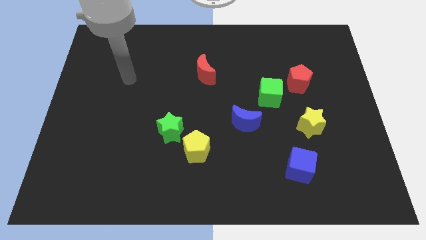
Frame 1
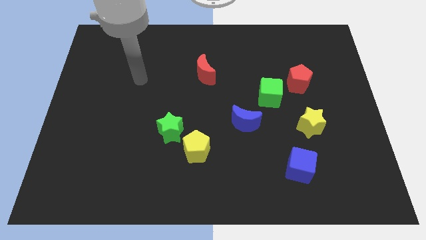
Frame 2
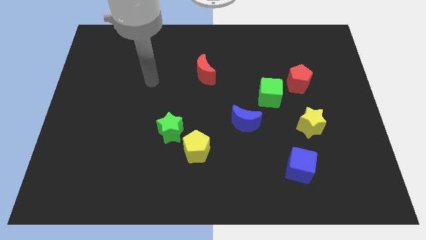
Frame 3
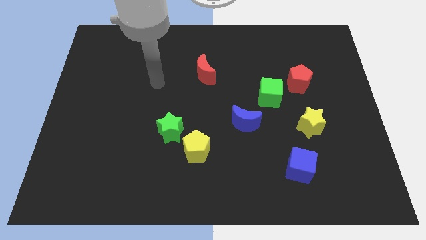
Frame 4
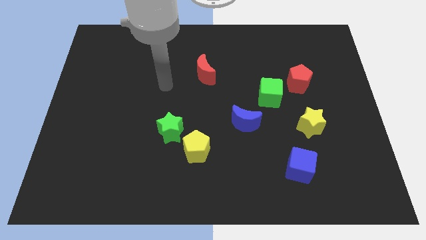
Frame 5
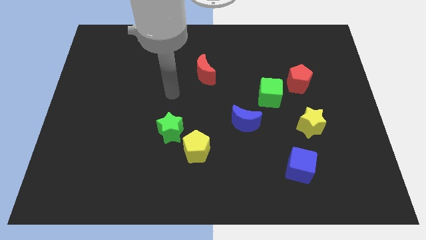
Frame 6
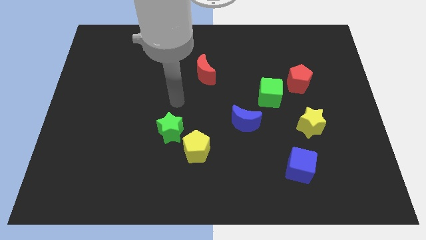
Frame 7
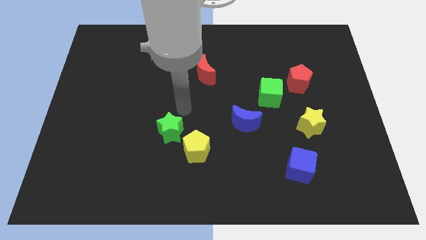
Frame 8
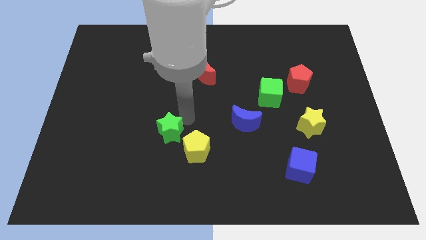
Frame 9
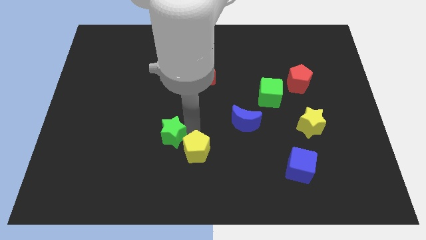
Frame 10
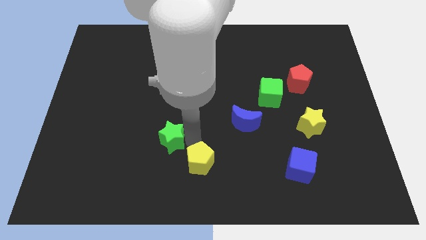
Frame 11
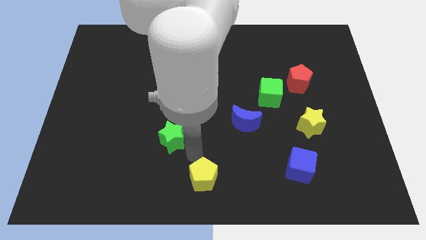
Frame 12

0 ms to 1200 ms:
separate the green star from the yellow pentagon

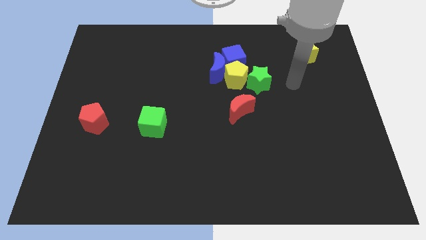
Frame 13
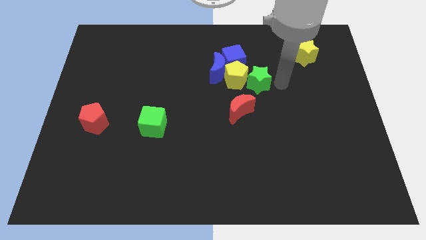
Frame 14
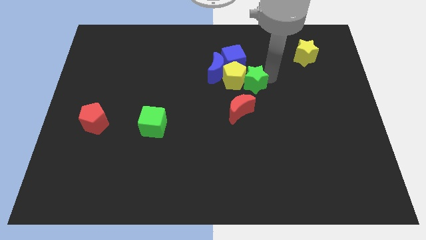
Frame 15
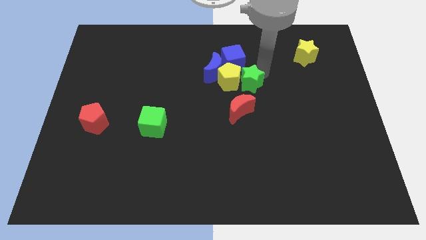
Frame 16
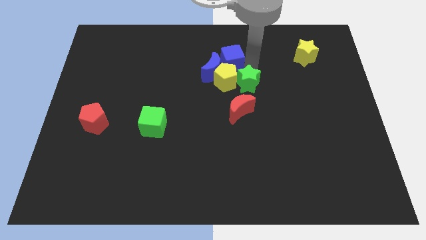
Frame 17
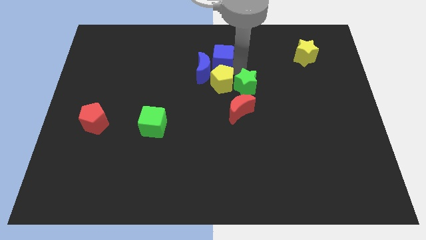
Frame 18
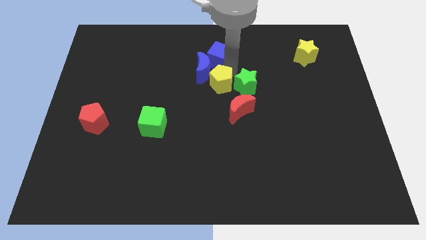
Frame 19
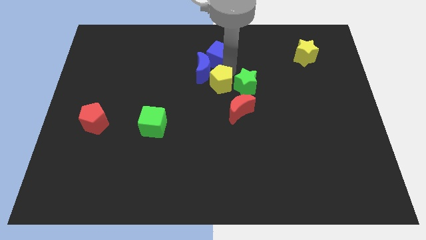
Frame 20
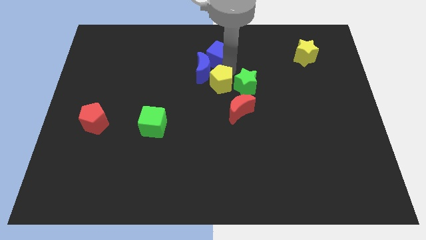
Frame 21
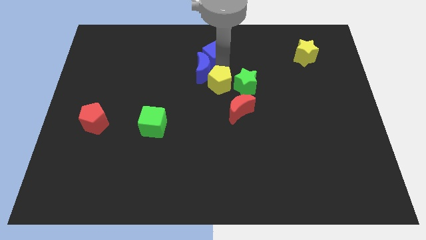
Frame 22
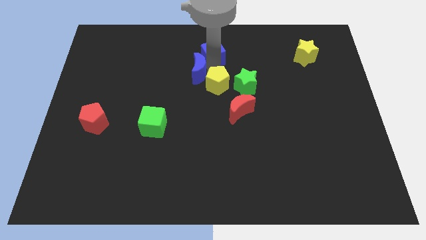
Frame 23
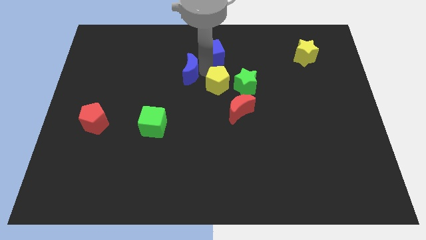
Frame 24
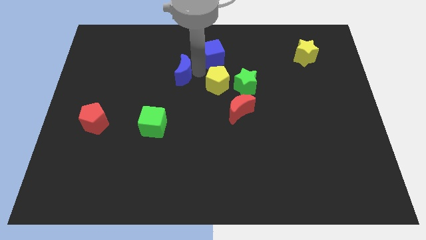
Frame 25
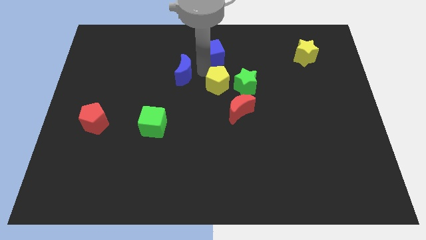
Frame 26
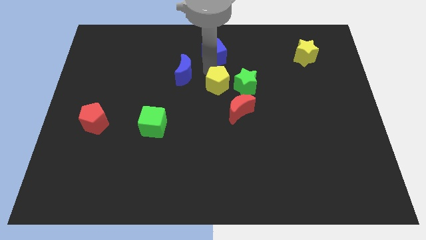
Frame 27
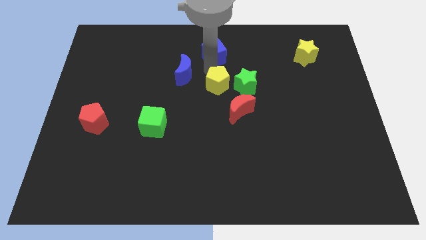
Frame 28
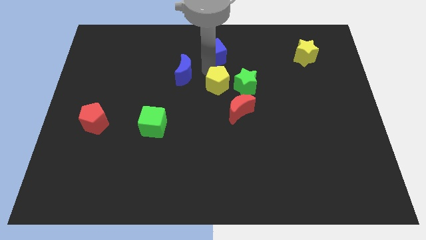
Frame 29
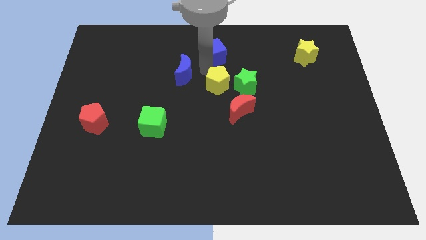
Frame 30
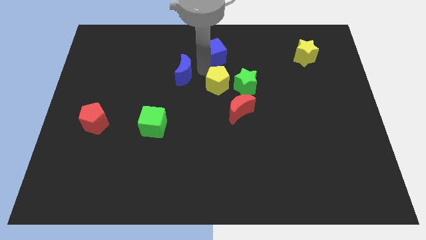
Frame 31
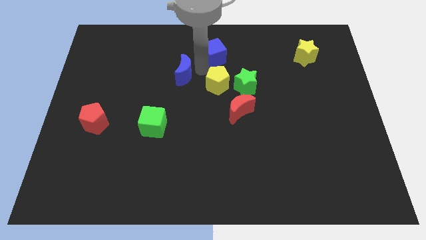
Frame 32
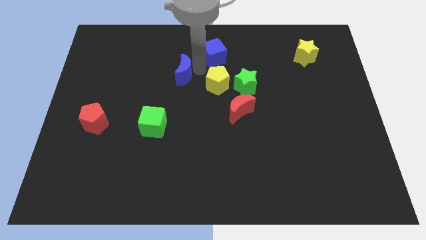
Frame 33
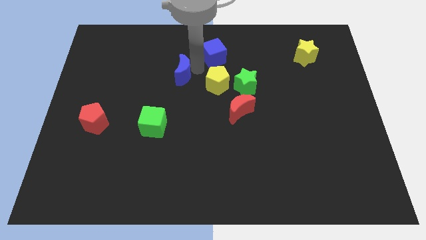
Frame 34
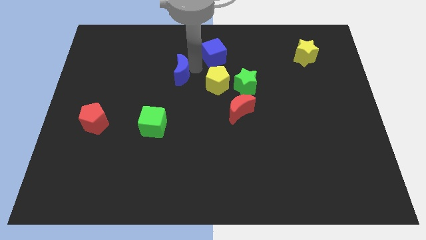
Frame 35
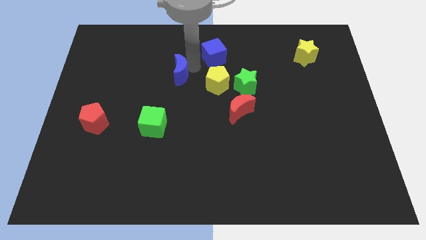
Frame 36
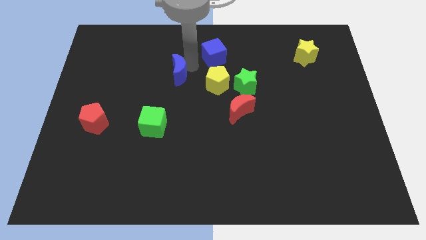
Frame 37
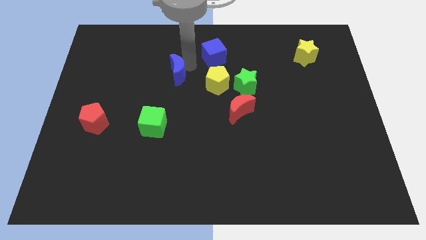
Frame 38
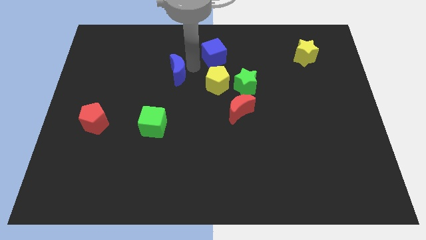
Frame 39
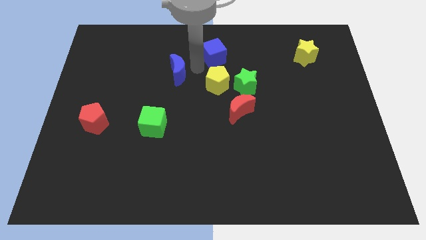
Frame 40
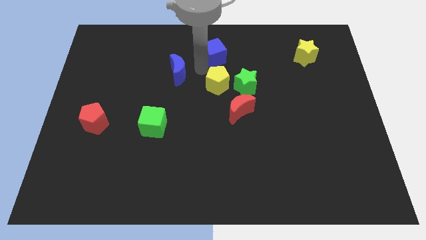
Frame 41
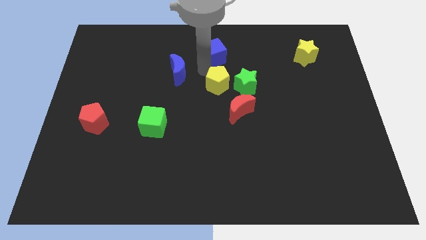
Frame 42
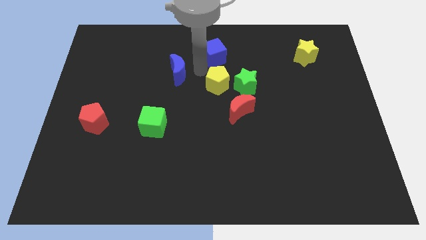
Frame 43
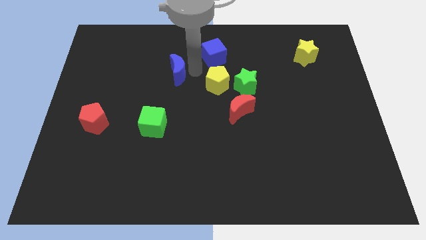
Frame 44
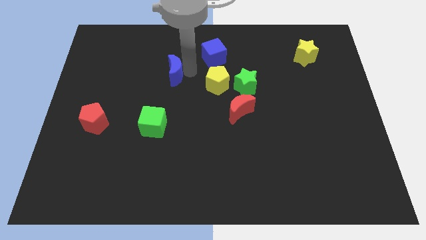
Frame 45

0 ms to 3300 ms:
separate the blue moon from the yellow pentagon and blue cube

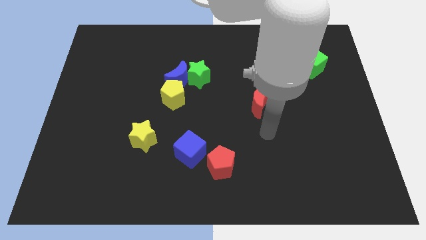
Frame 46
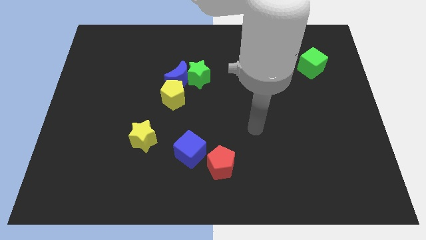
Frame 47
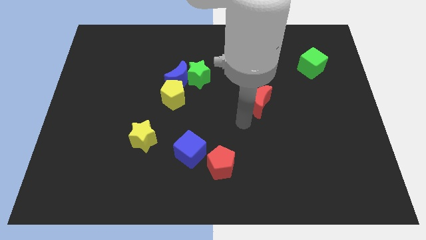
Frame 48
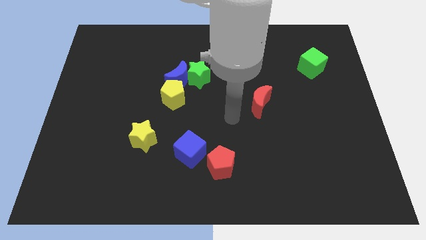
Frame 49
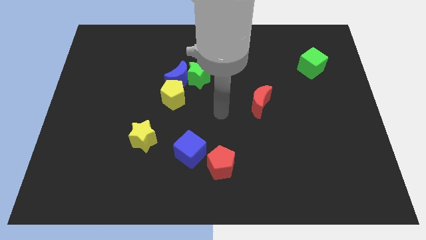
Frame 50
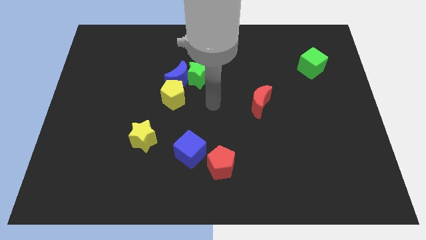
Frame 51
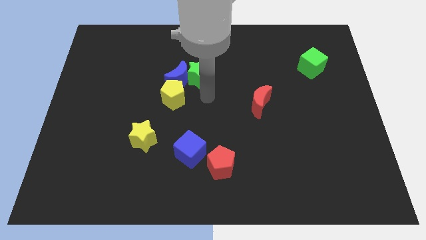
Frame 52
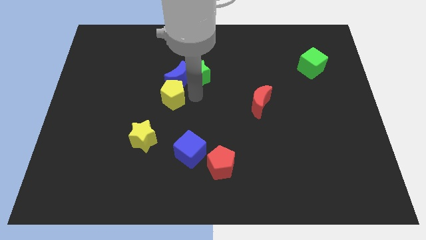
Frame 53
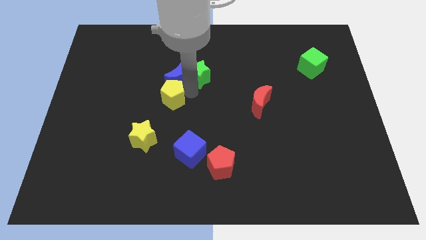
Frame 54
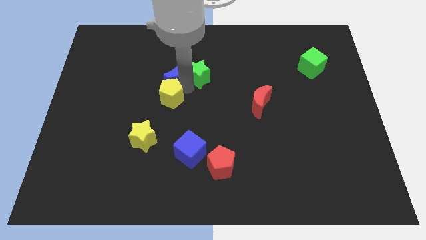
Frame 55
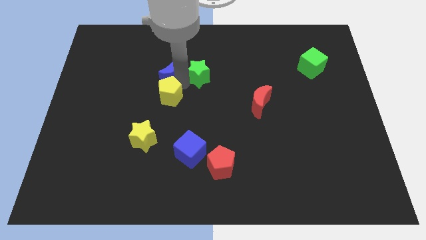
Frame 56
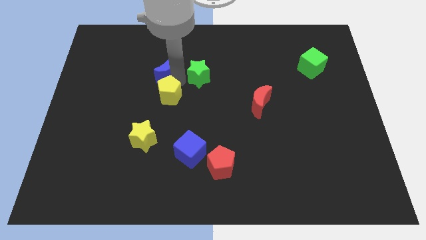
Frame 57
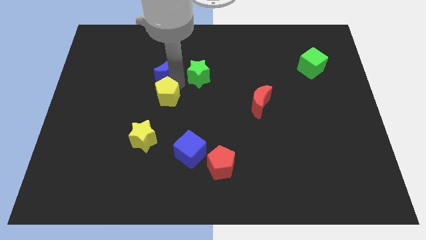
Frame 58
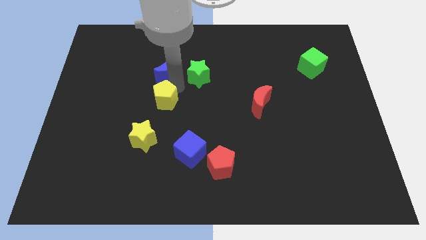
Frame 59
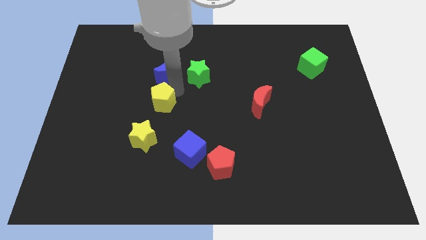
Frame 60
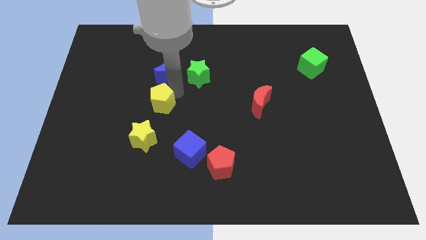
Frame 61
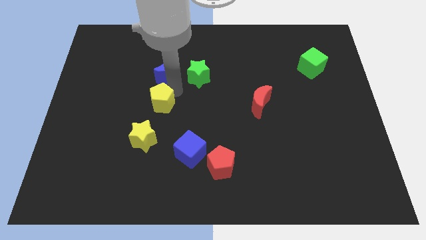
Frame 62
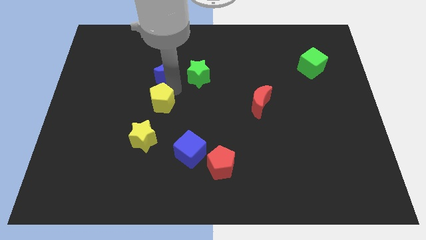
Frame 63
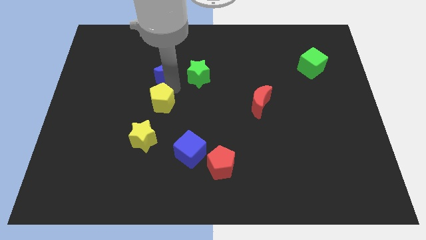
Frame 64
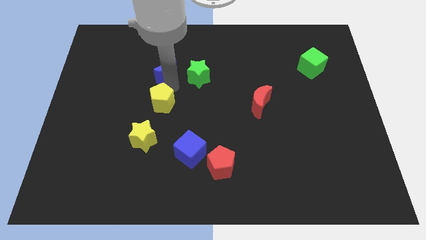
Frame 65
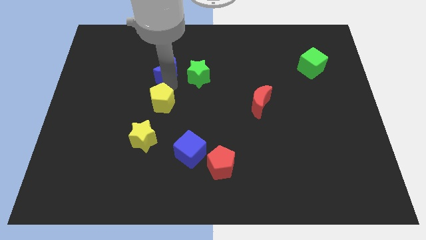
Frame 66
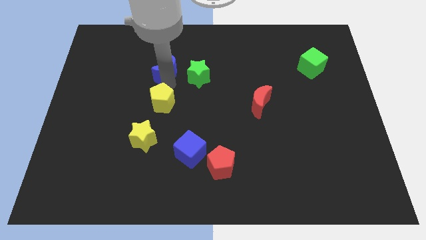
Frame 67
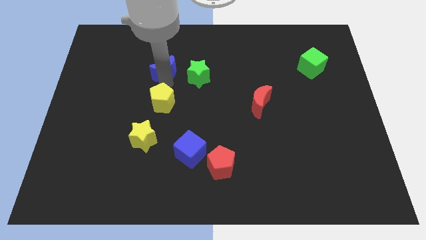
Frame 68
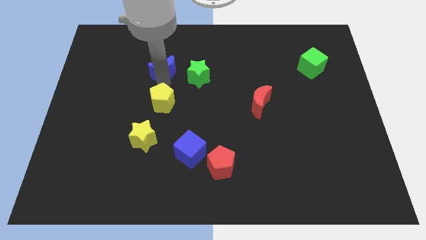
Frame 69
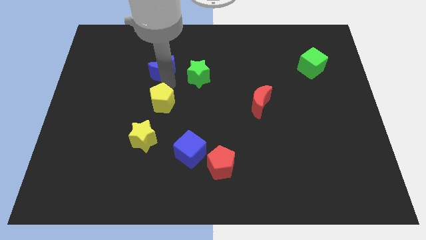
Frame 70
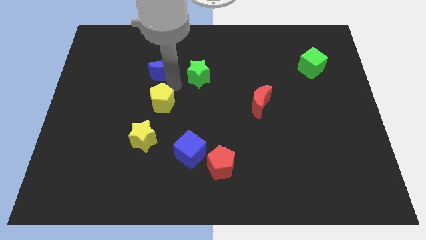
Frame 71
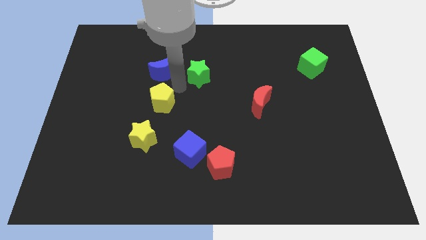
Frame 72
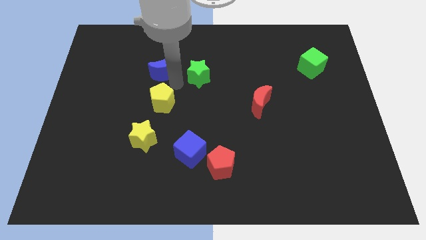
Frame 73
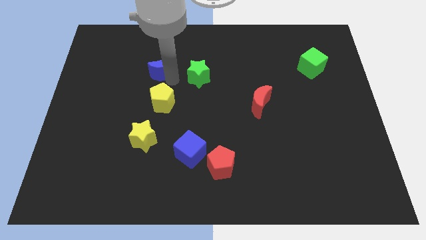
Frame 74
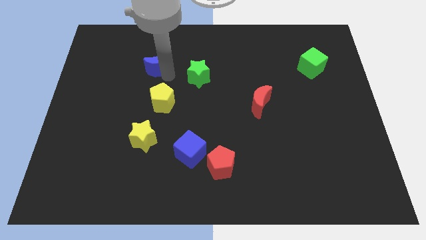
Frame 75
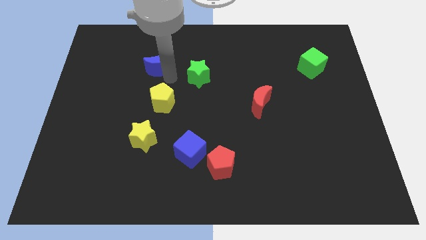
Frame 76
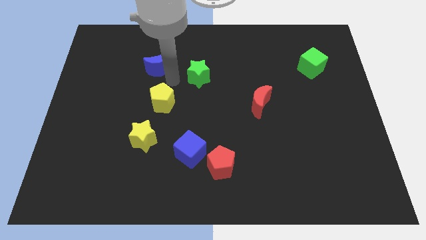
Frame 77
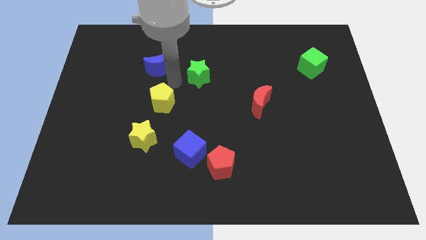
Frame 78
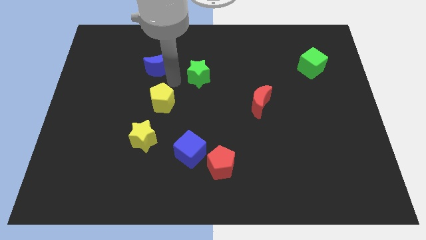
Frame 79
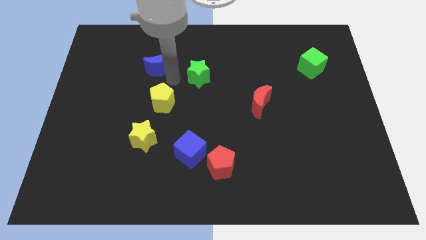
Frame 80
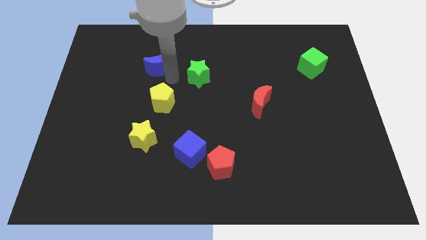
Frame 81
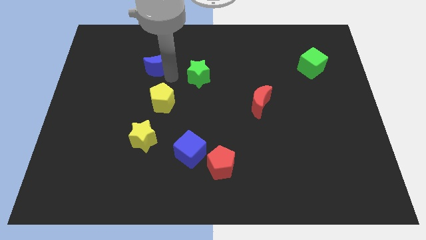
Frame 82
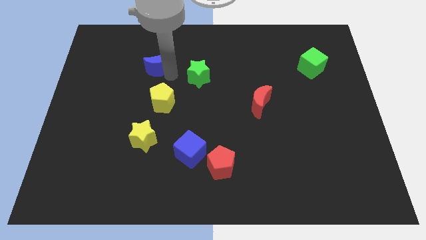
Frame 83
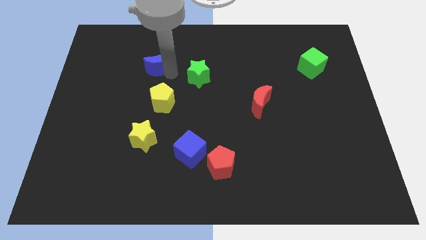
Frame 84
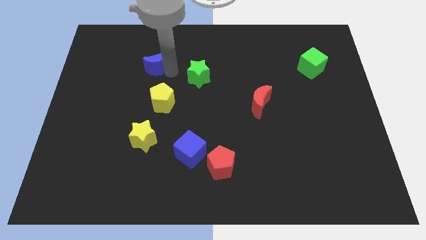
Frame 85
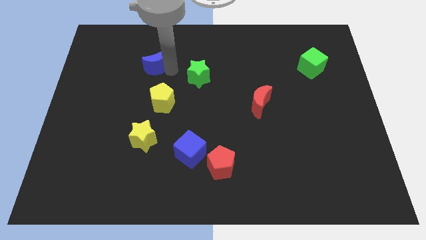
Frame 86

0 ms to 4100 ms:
separate the blue moon from the green star and yellow pentagon

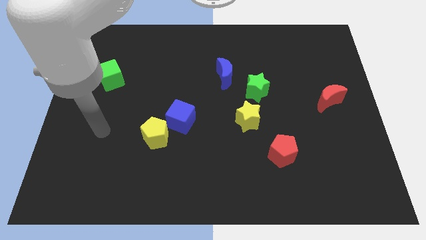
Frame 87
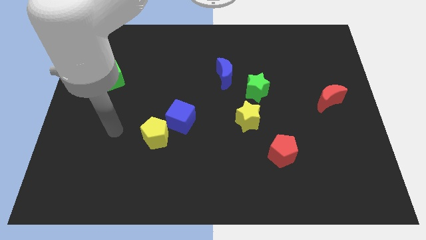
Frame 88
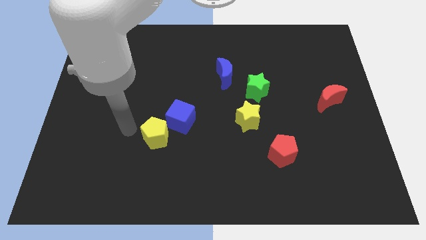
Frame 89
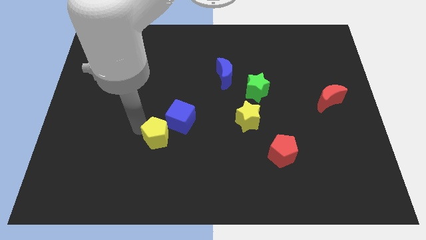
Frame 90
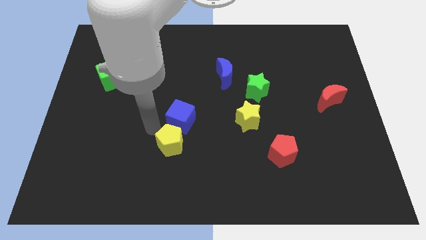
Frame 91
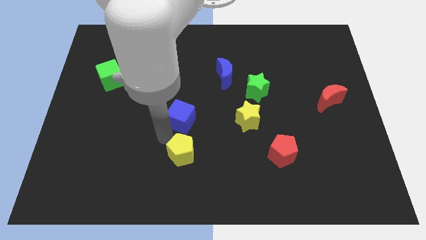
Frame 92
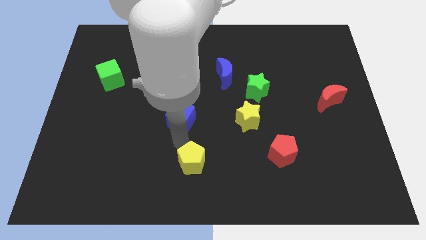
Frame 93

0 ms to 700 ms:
pull the blue cube apart from the yellow pentagon
